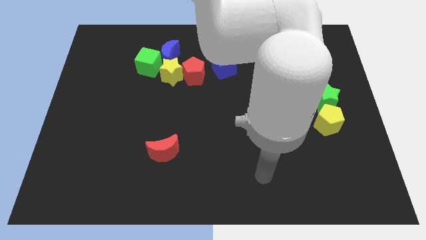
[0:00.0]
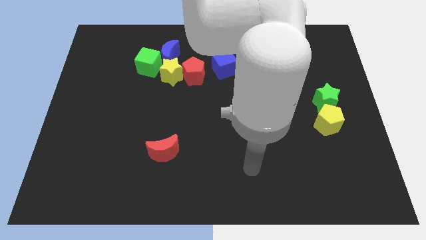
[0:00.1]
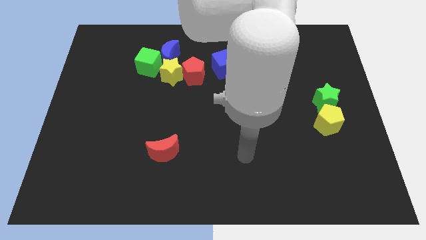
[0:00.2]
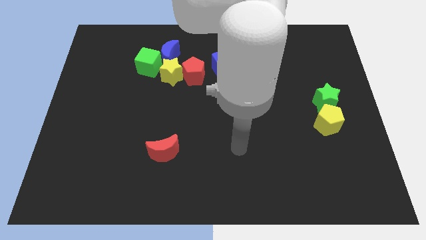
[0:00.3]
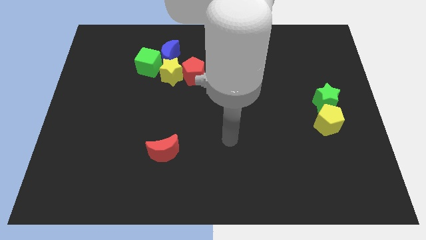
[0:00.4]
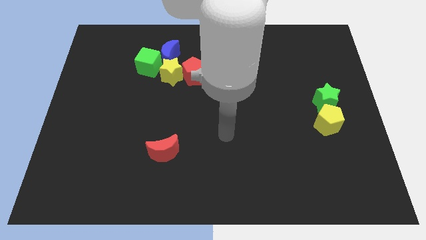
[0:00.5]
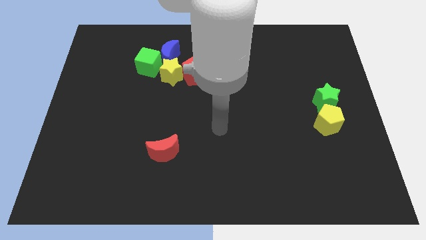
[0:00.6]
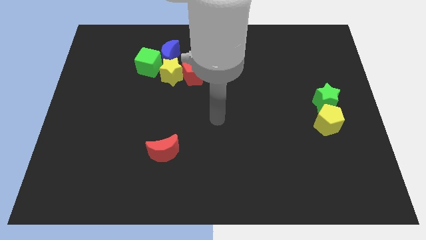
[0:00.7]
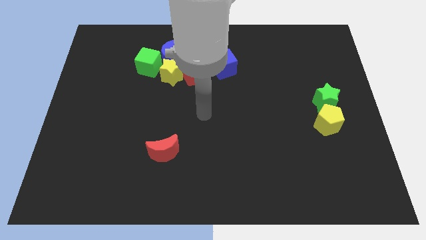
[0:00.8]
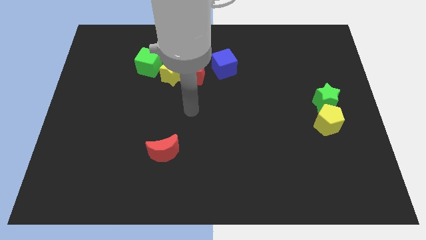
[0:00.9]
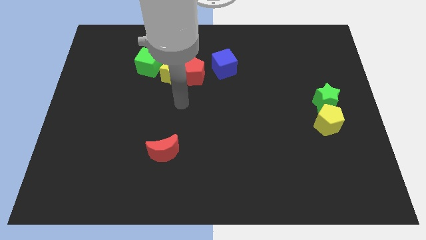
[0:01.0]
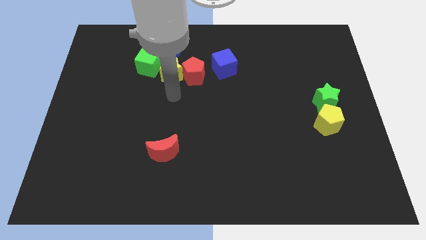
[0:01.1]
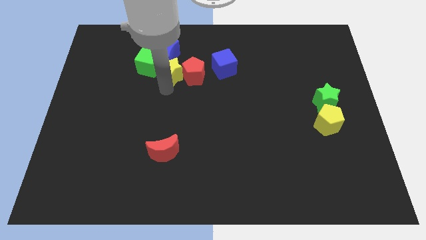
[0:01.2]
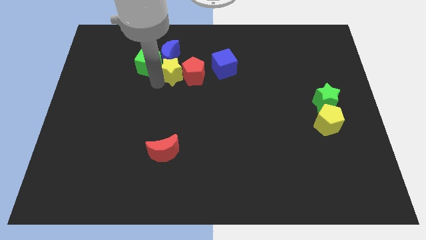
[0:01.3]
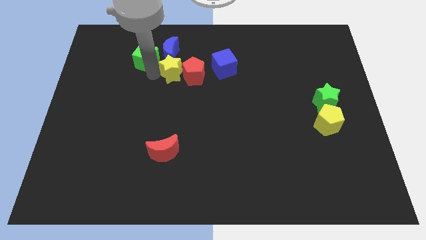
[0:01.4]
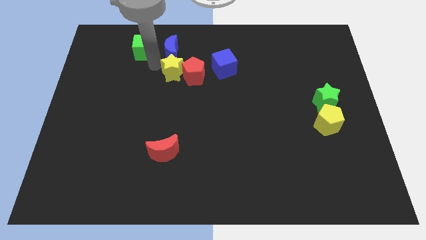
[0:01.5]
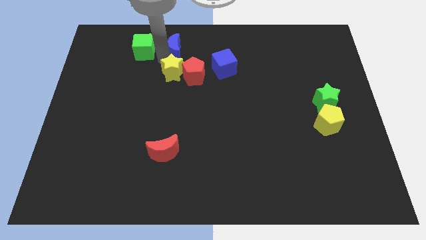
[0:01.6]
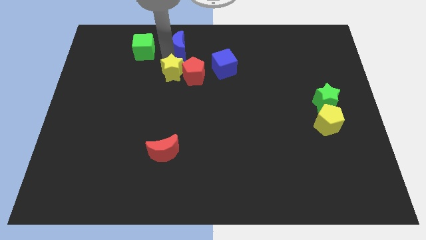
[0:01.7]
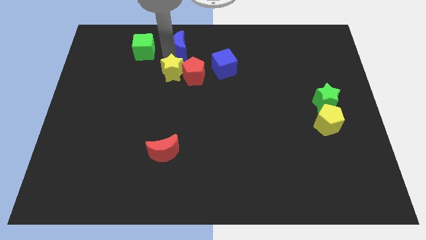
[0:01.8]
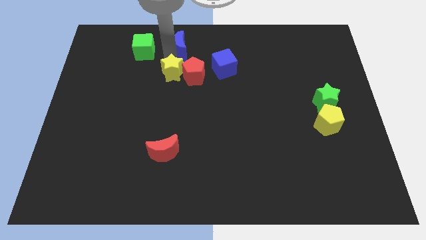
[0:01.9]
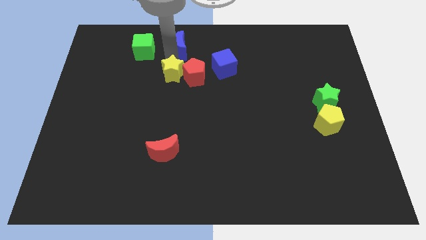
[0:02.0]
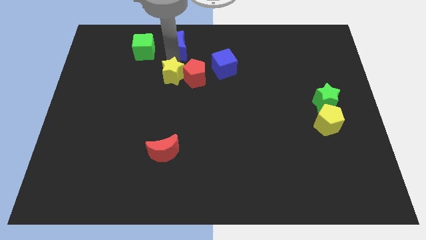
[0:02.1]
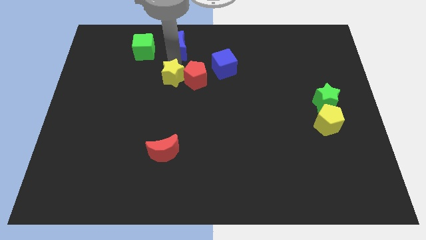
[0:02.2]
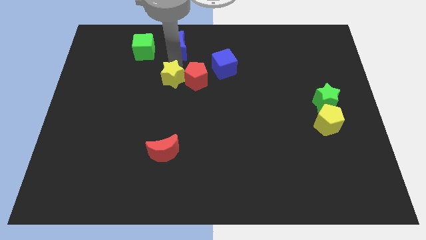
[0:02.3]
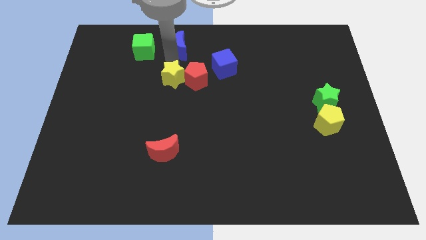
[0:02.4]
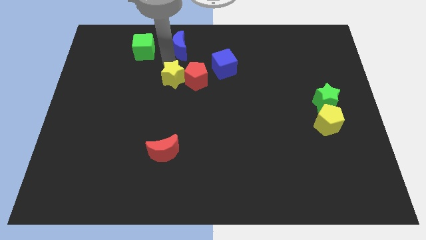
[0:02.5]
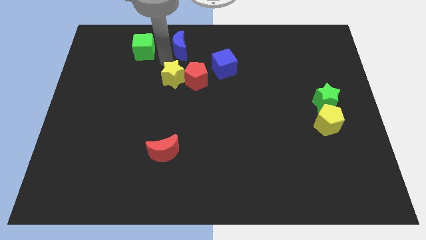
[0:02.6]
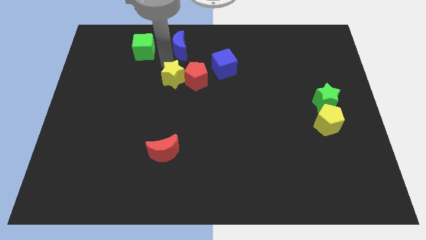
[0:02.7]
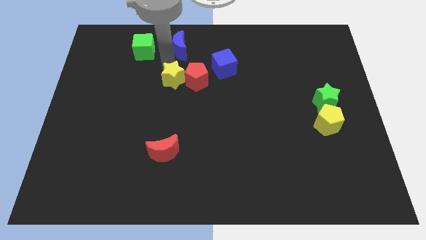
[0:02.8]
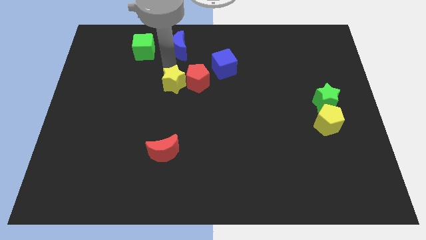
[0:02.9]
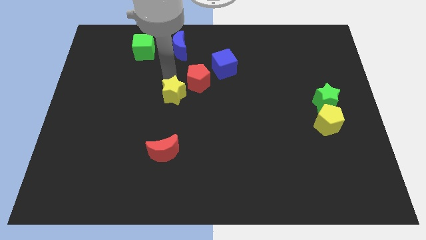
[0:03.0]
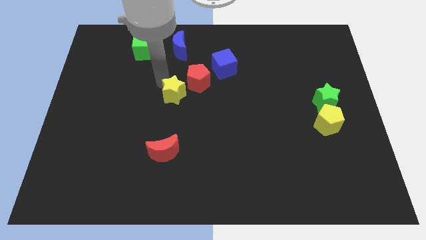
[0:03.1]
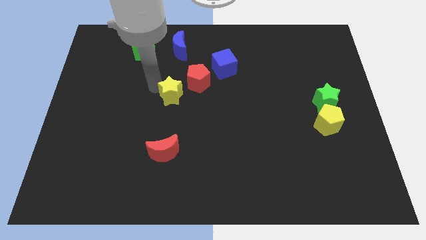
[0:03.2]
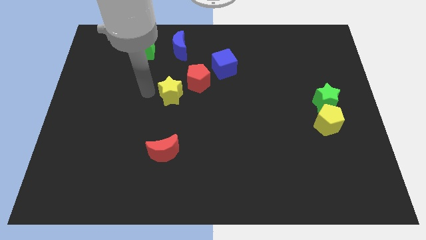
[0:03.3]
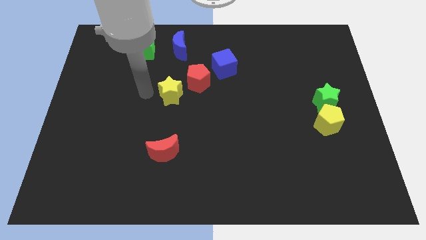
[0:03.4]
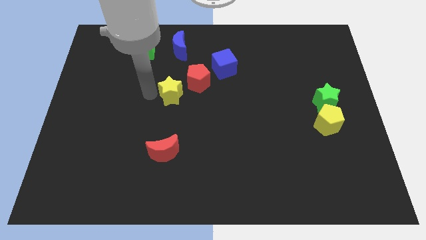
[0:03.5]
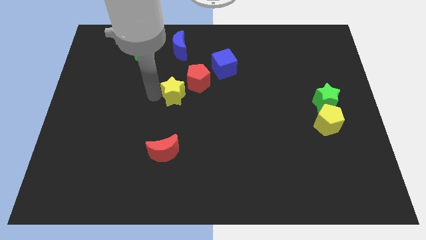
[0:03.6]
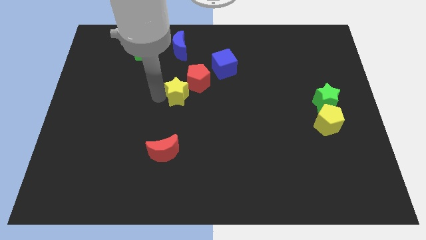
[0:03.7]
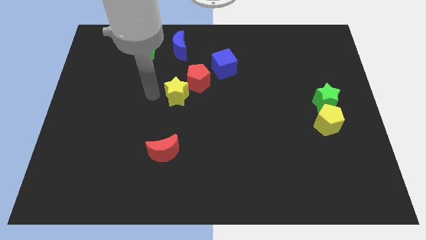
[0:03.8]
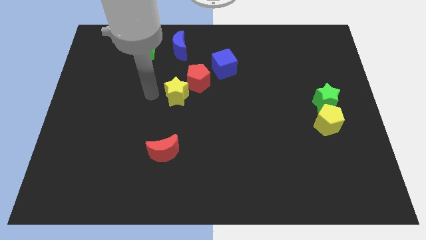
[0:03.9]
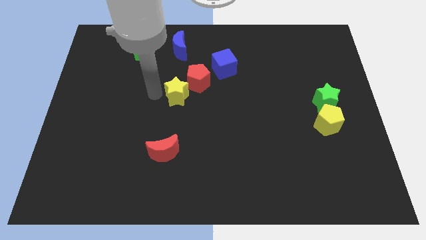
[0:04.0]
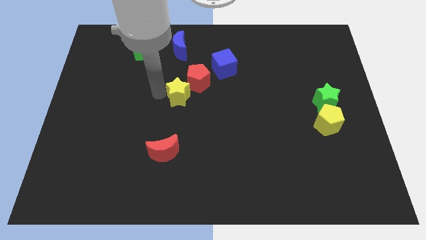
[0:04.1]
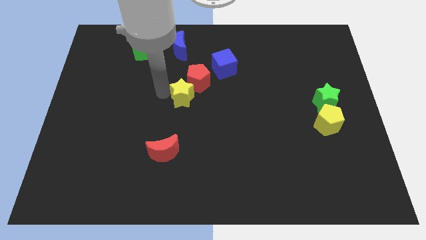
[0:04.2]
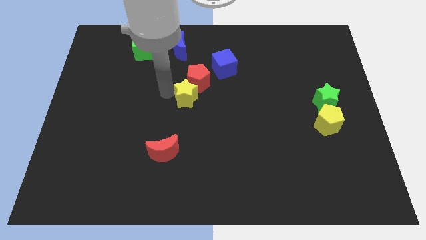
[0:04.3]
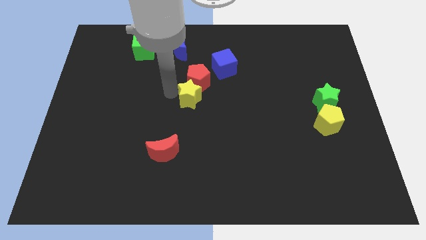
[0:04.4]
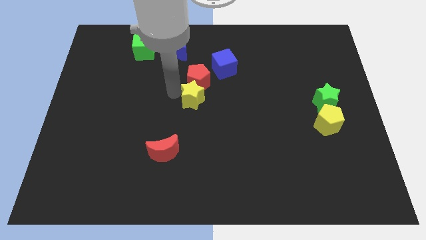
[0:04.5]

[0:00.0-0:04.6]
slide the yellow star to the bottom right of the red pentagon

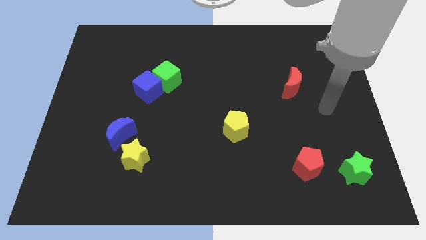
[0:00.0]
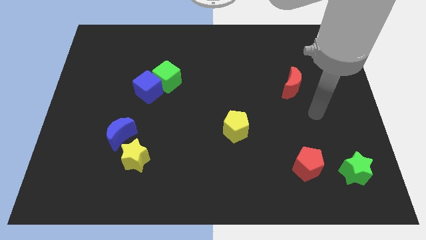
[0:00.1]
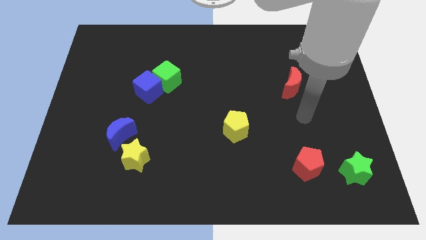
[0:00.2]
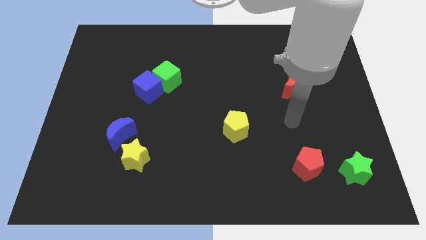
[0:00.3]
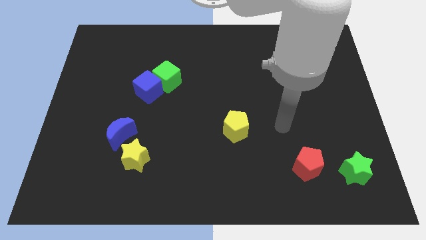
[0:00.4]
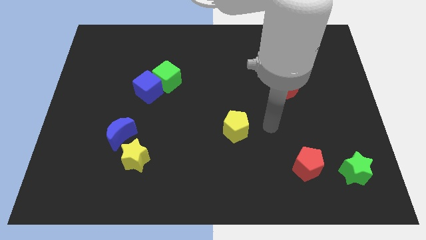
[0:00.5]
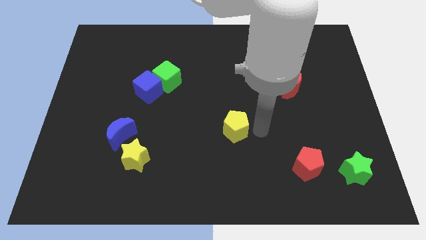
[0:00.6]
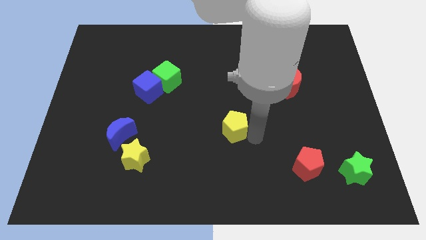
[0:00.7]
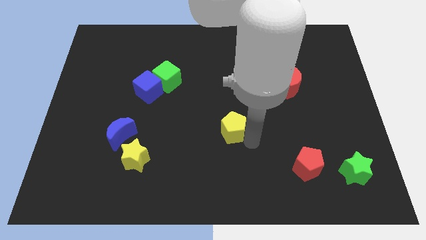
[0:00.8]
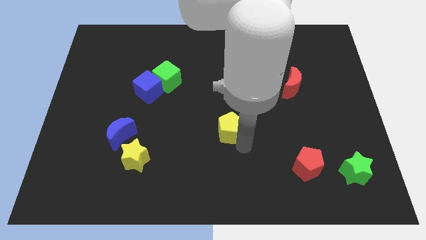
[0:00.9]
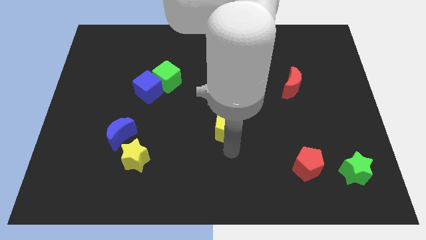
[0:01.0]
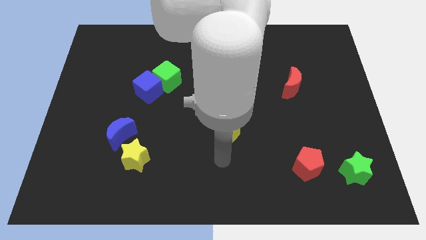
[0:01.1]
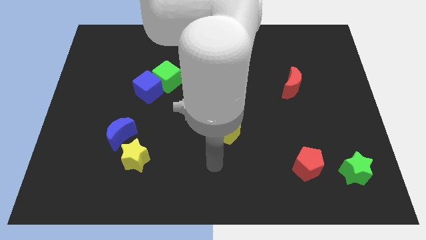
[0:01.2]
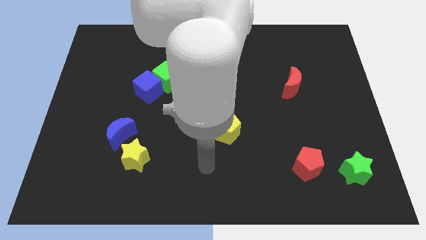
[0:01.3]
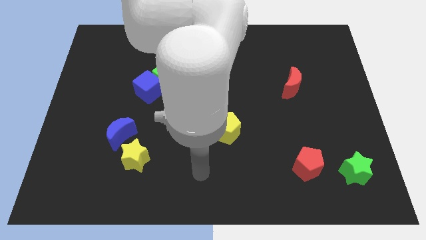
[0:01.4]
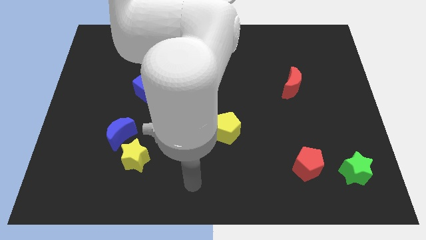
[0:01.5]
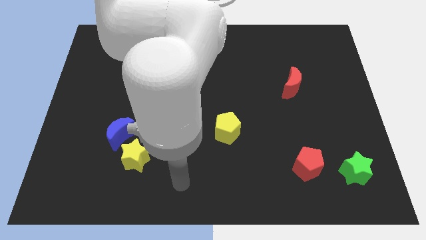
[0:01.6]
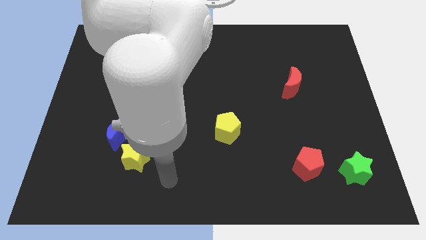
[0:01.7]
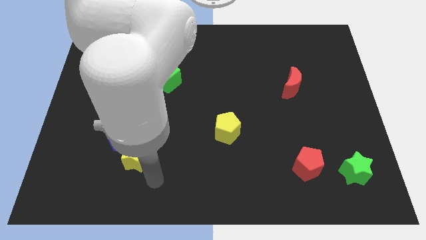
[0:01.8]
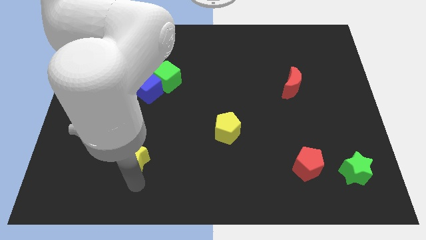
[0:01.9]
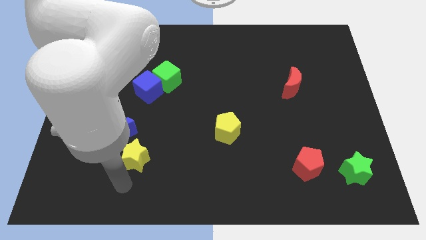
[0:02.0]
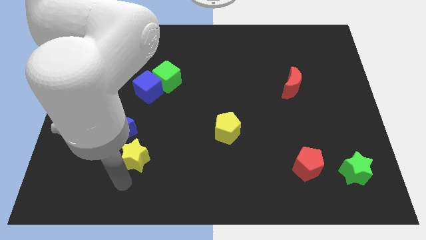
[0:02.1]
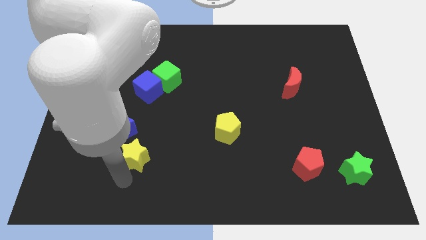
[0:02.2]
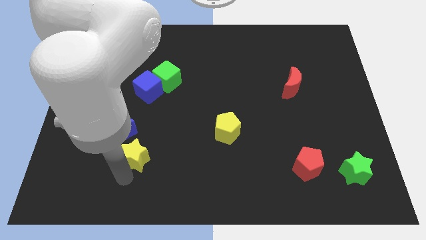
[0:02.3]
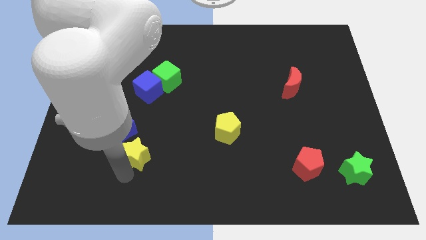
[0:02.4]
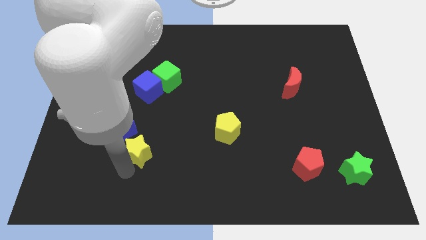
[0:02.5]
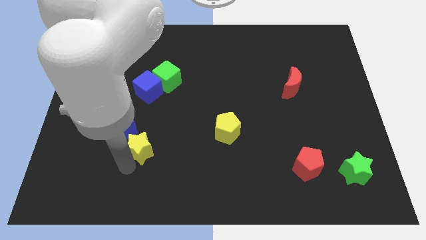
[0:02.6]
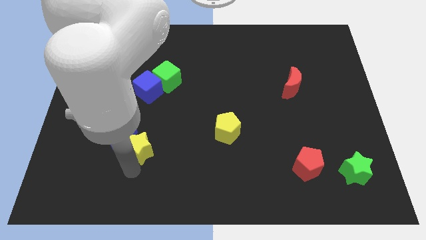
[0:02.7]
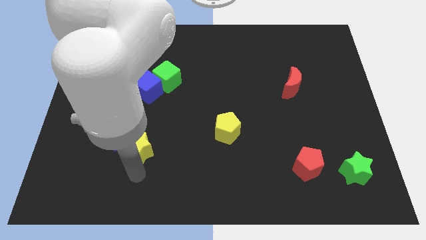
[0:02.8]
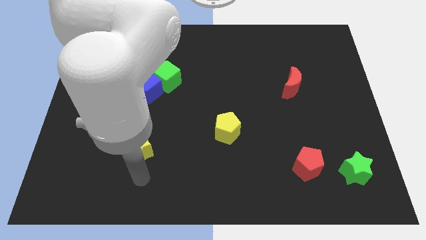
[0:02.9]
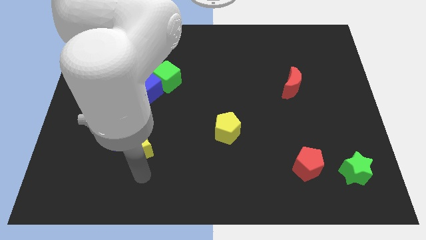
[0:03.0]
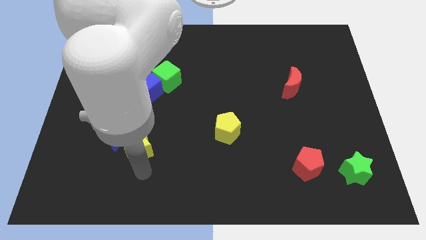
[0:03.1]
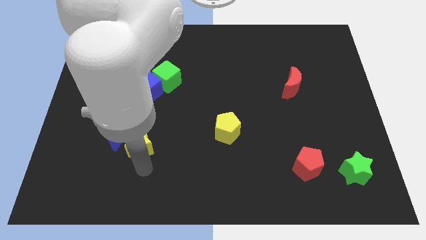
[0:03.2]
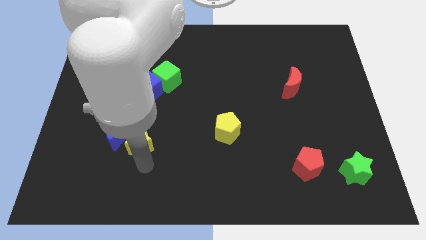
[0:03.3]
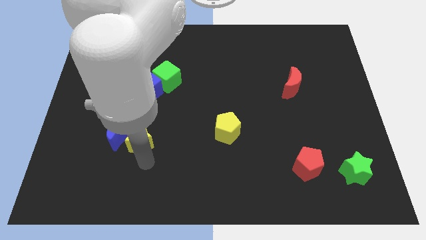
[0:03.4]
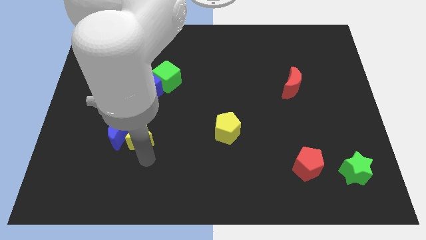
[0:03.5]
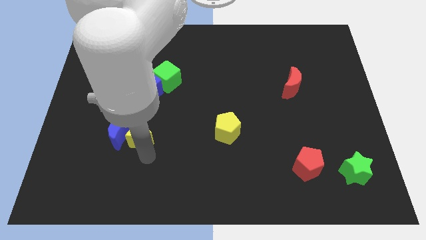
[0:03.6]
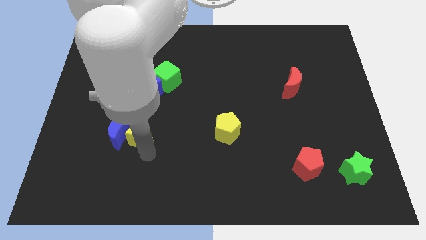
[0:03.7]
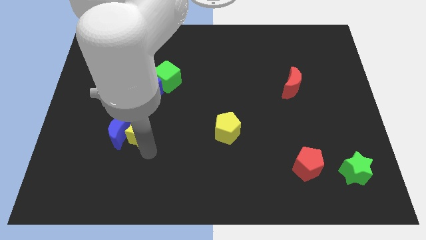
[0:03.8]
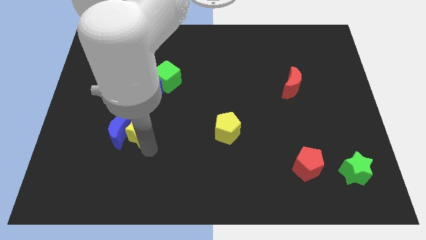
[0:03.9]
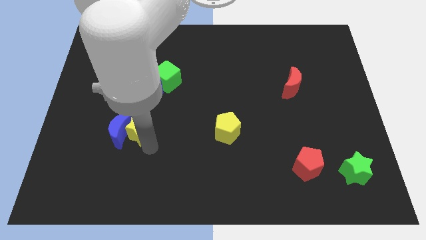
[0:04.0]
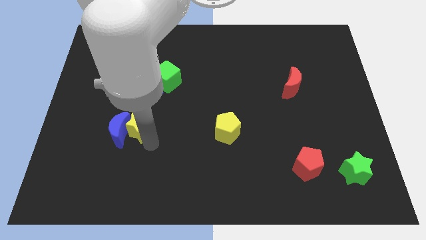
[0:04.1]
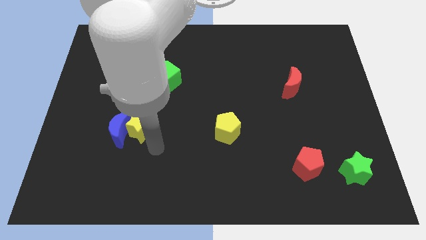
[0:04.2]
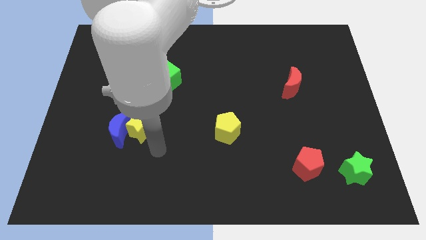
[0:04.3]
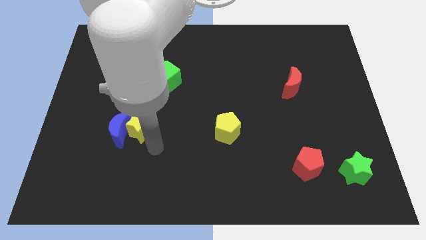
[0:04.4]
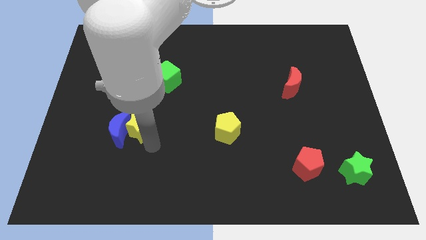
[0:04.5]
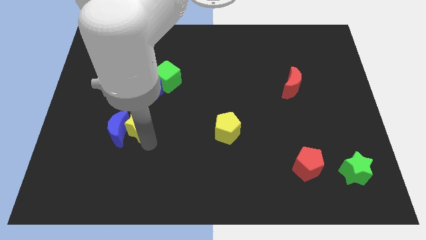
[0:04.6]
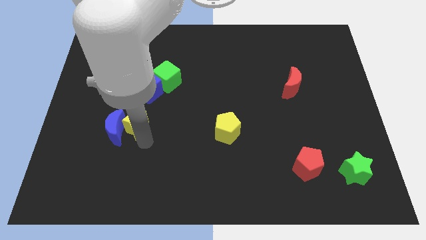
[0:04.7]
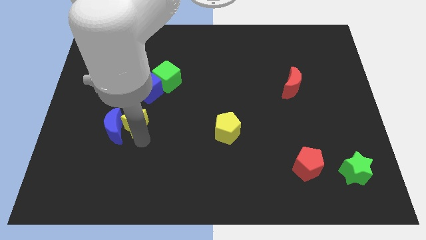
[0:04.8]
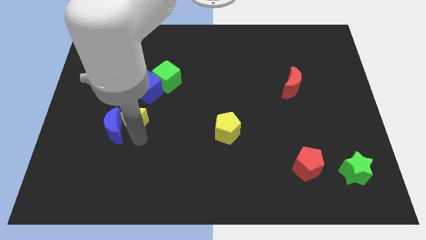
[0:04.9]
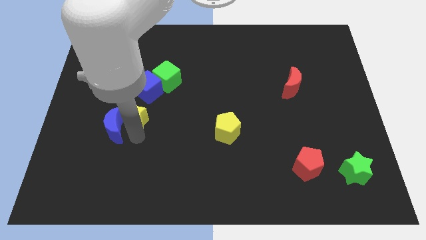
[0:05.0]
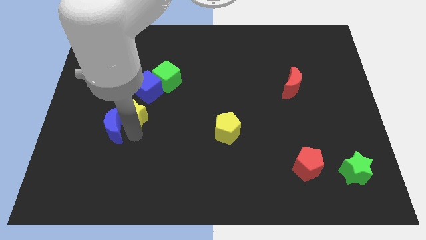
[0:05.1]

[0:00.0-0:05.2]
move the yellow star to the bottom left of the blue cube
